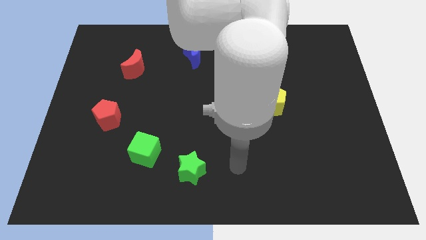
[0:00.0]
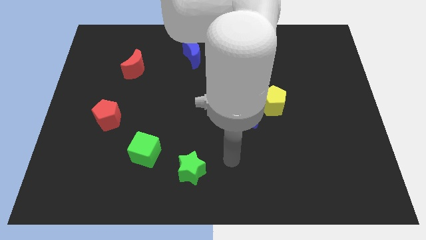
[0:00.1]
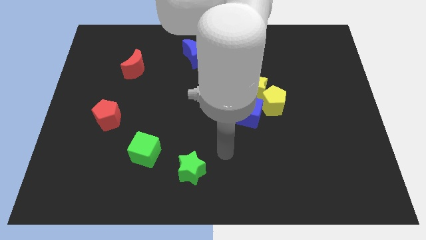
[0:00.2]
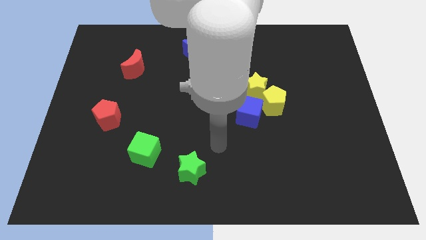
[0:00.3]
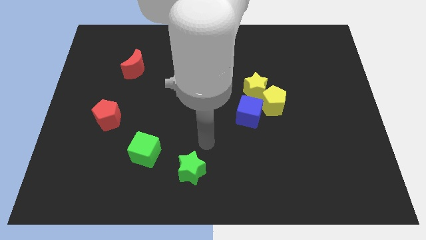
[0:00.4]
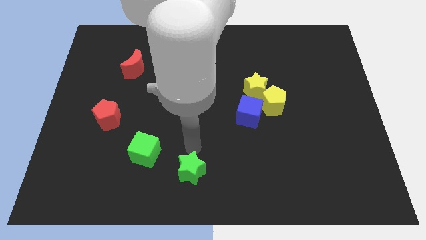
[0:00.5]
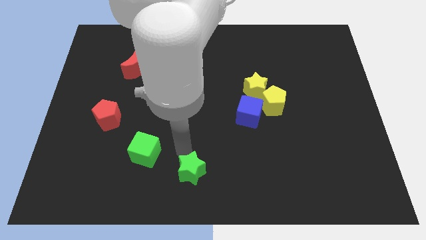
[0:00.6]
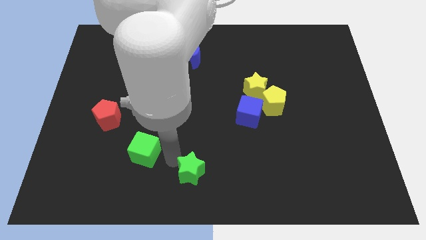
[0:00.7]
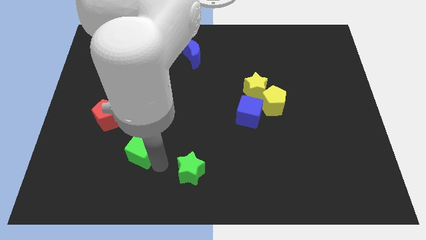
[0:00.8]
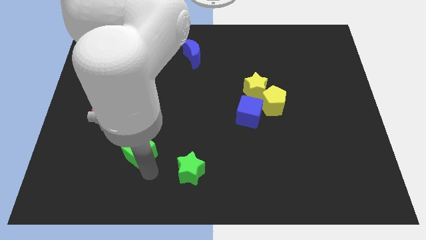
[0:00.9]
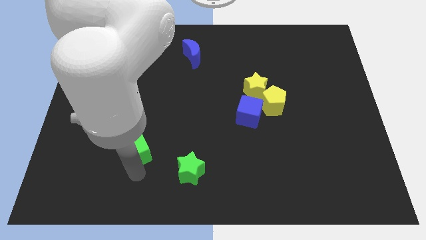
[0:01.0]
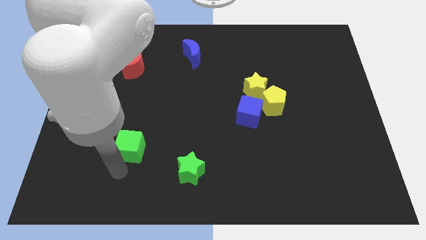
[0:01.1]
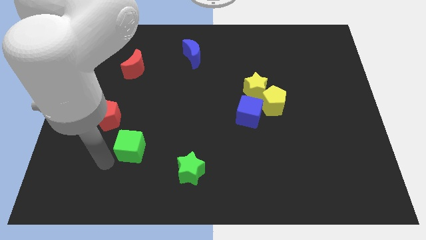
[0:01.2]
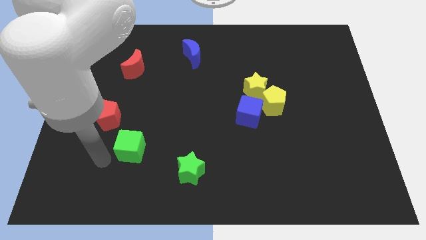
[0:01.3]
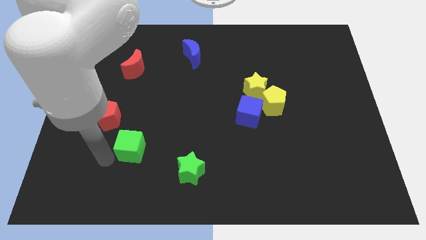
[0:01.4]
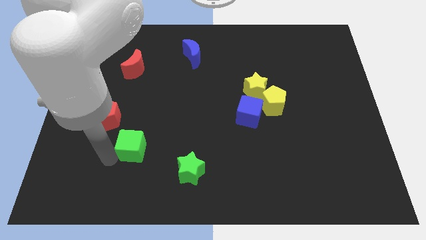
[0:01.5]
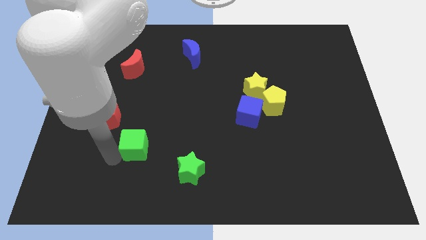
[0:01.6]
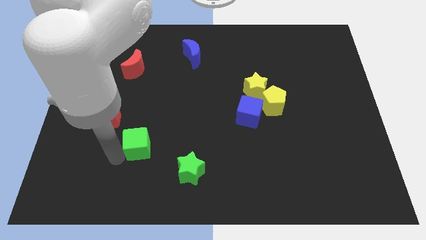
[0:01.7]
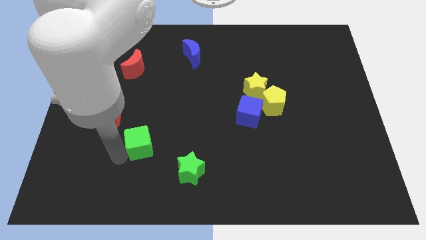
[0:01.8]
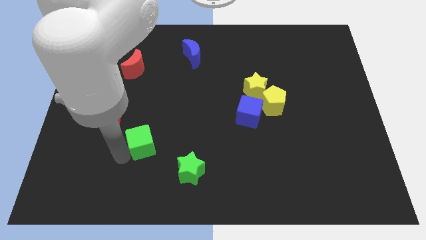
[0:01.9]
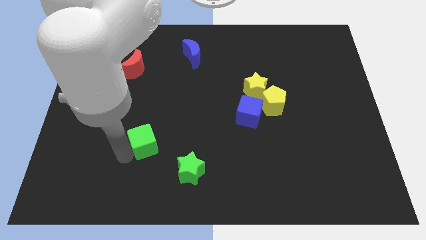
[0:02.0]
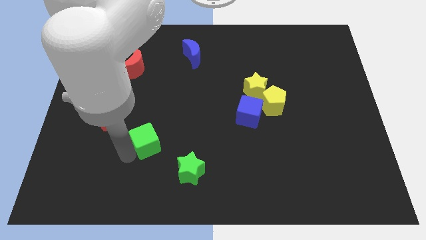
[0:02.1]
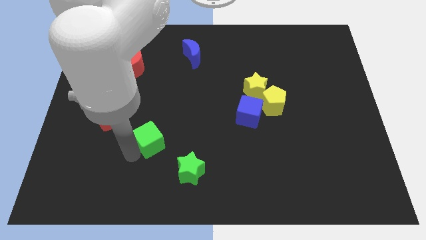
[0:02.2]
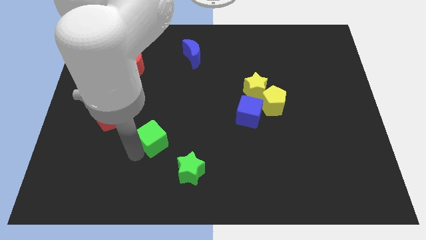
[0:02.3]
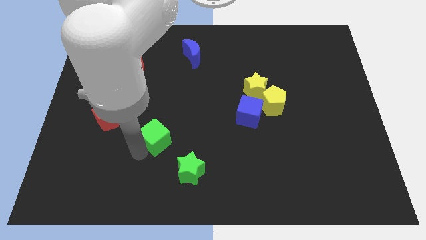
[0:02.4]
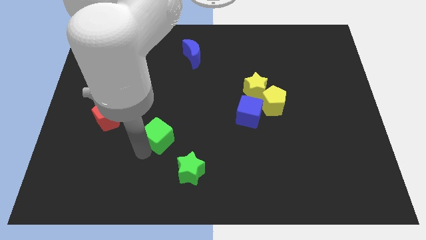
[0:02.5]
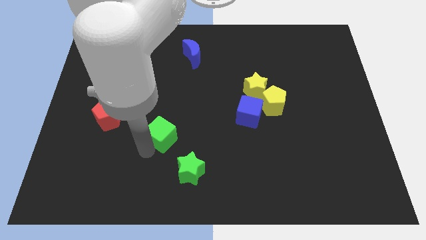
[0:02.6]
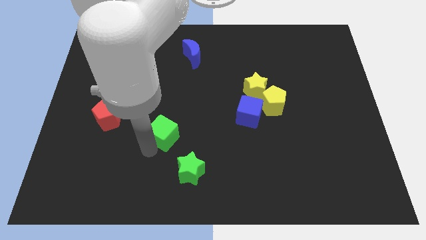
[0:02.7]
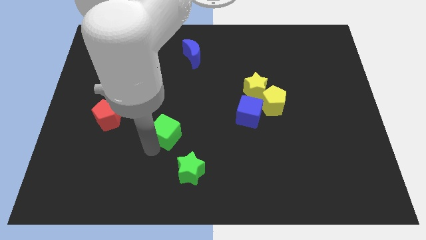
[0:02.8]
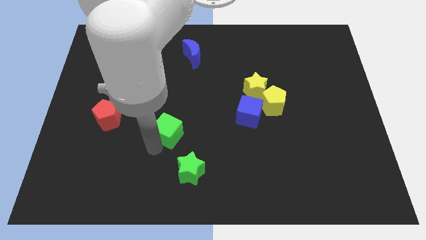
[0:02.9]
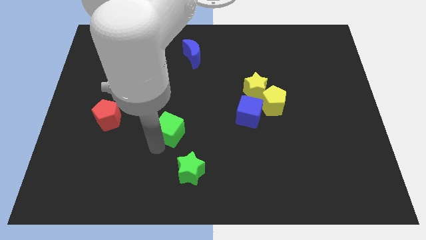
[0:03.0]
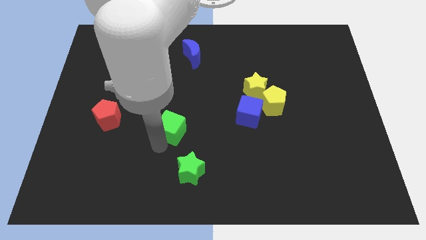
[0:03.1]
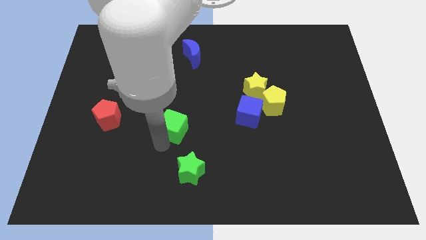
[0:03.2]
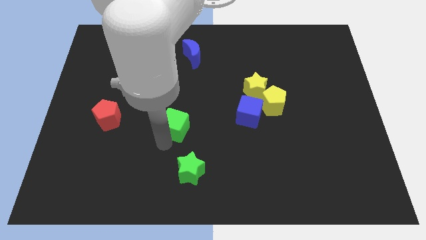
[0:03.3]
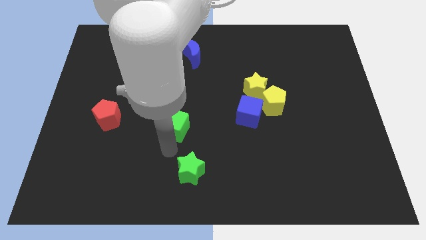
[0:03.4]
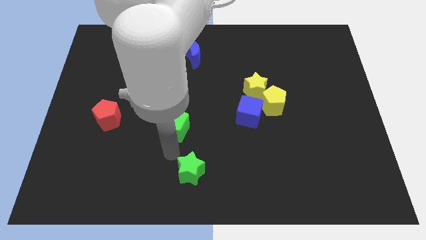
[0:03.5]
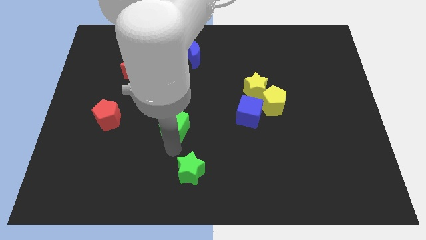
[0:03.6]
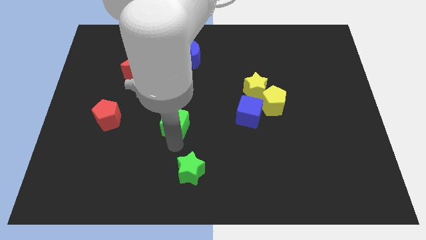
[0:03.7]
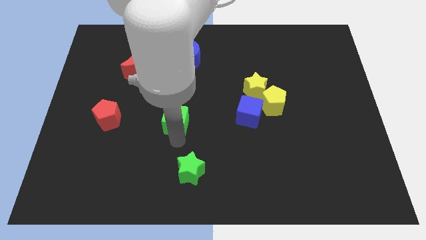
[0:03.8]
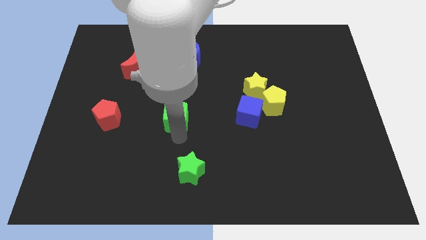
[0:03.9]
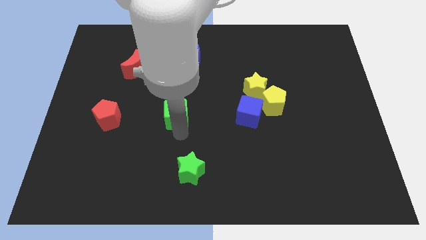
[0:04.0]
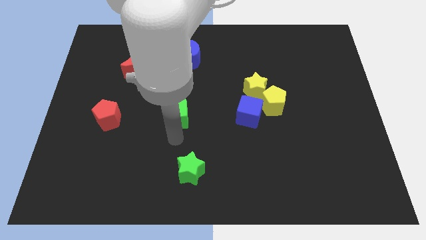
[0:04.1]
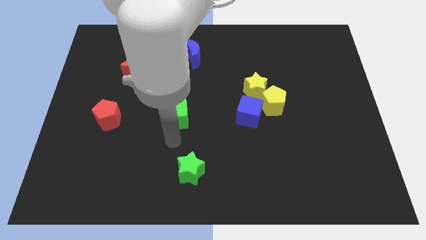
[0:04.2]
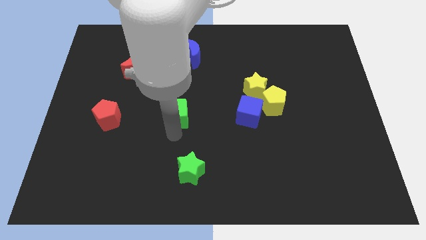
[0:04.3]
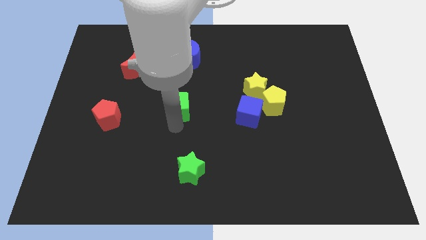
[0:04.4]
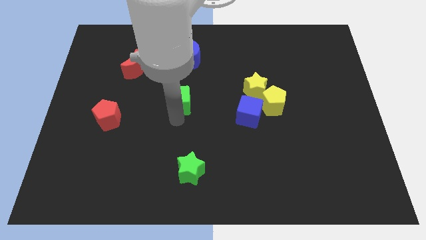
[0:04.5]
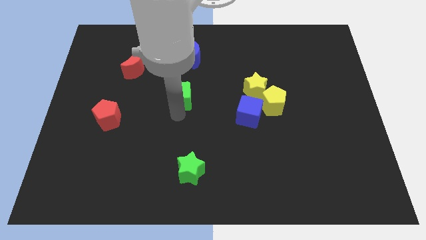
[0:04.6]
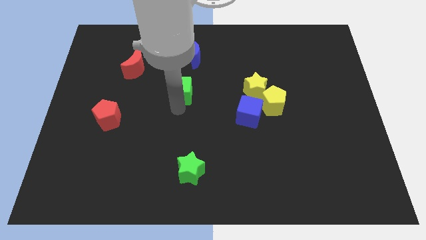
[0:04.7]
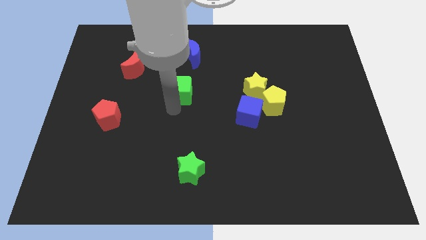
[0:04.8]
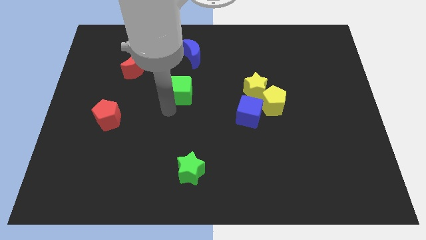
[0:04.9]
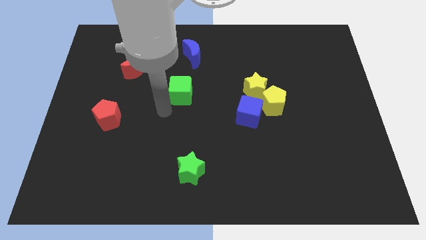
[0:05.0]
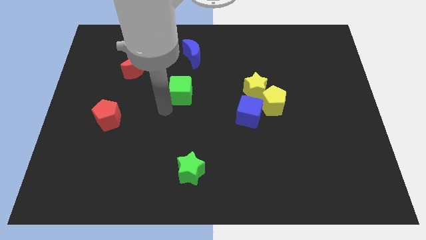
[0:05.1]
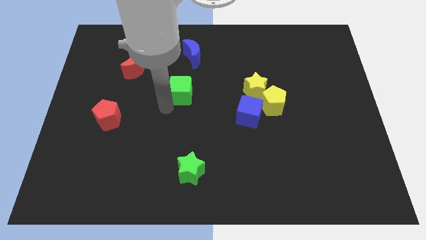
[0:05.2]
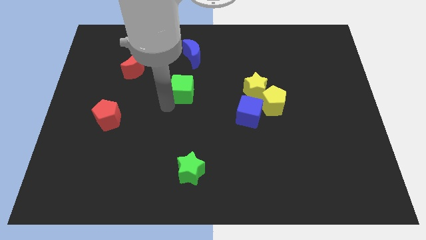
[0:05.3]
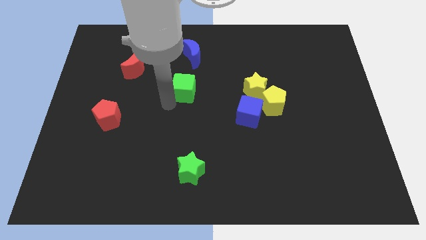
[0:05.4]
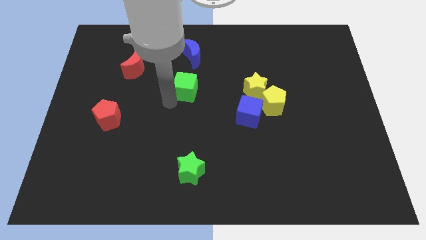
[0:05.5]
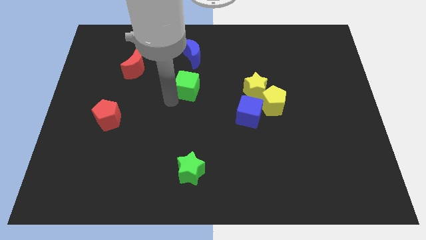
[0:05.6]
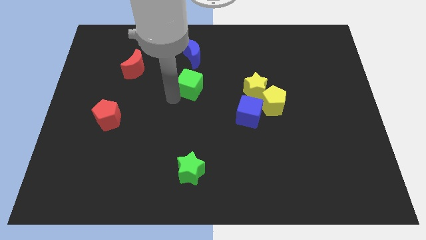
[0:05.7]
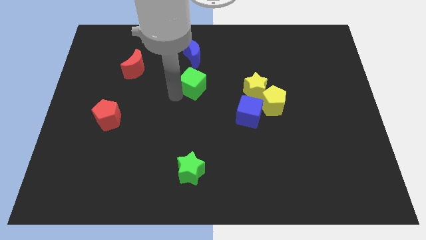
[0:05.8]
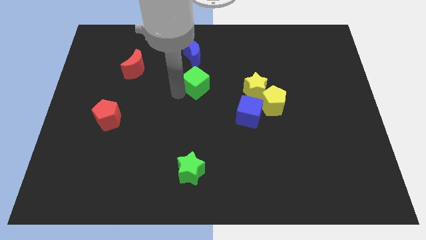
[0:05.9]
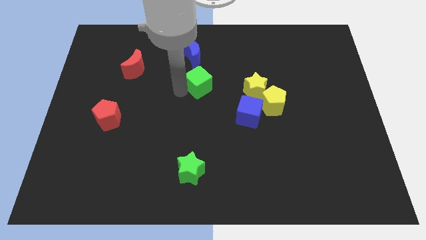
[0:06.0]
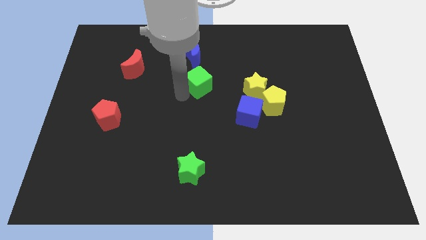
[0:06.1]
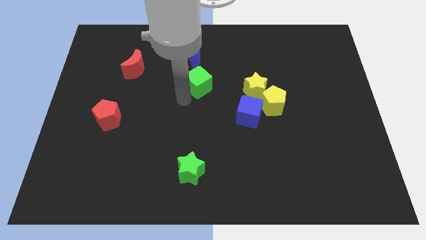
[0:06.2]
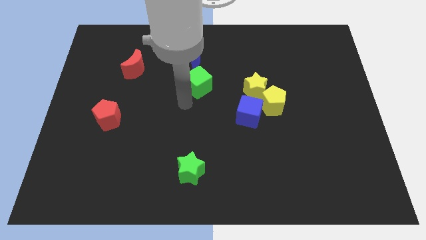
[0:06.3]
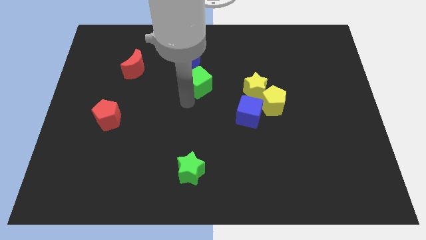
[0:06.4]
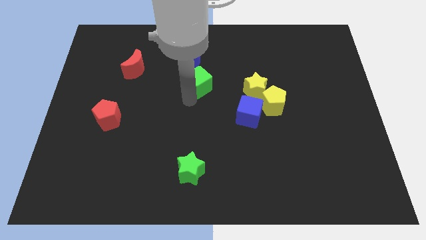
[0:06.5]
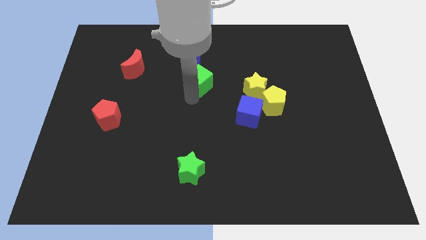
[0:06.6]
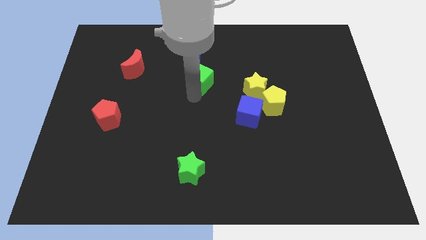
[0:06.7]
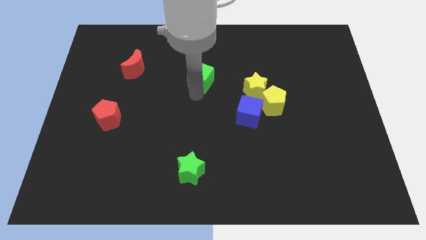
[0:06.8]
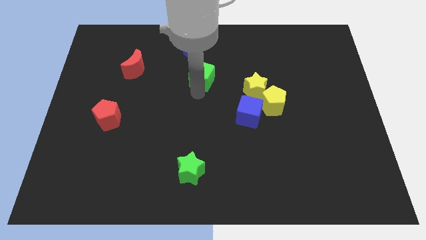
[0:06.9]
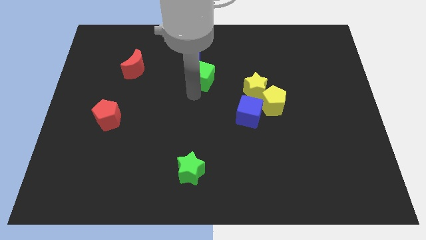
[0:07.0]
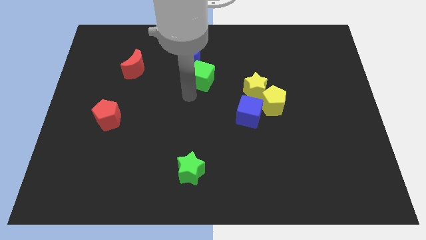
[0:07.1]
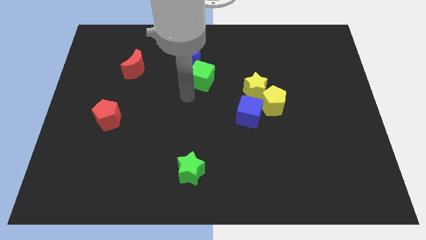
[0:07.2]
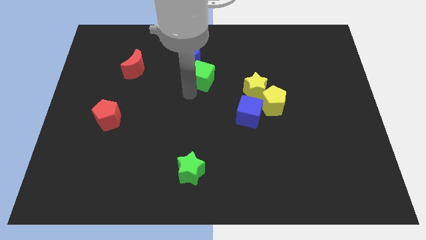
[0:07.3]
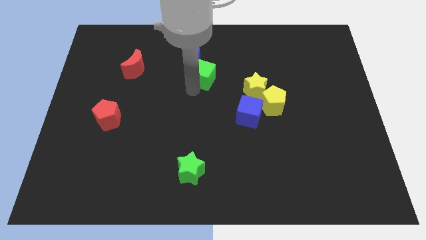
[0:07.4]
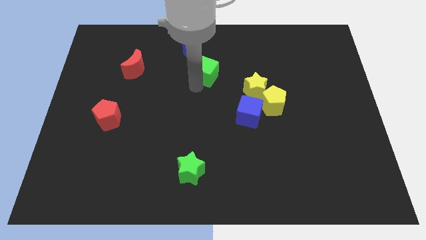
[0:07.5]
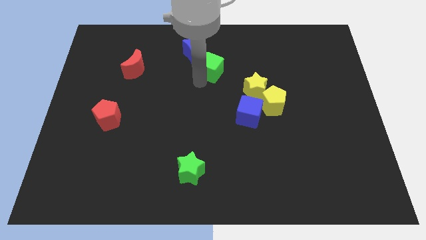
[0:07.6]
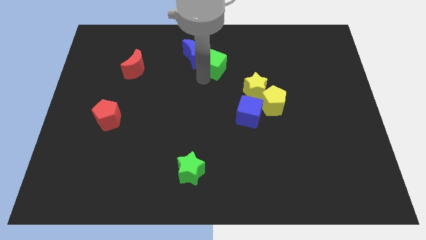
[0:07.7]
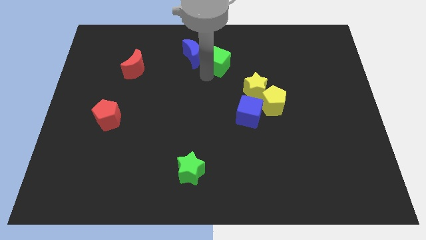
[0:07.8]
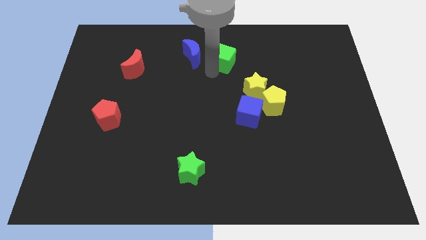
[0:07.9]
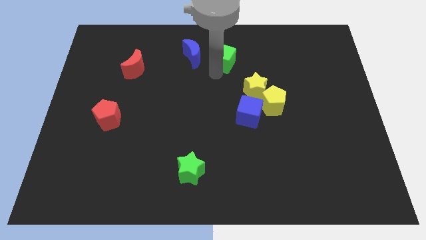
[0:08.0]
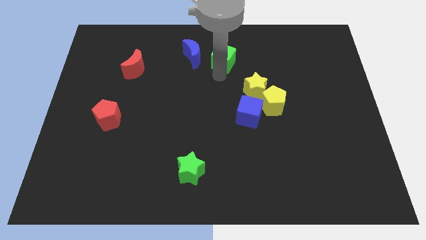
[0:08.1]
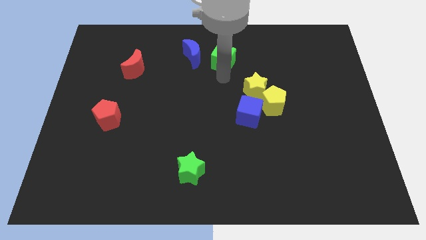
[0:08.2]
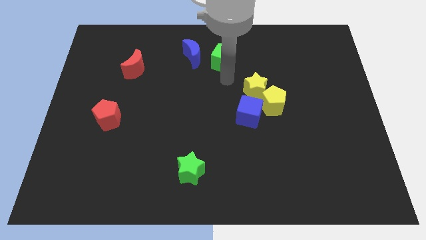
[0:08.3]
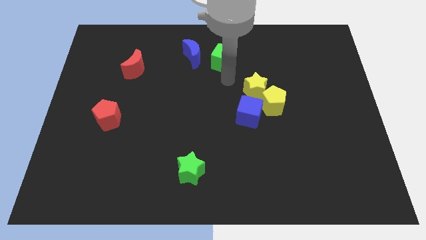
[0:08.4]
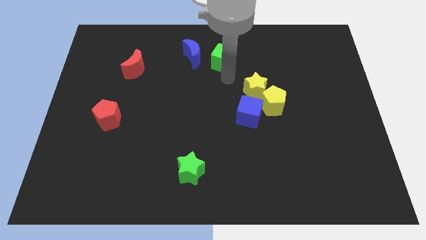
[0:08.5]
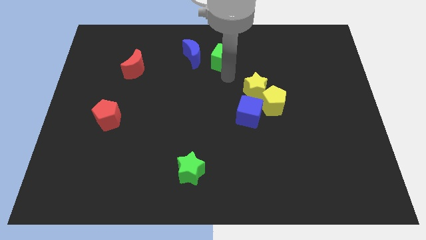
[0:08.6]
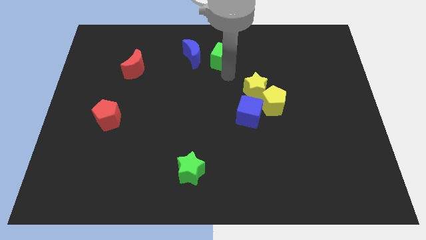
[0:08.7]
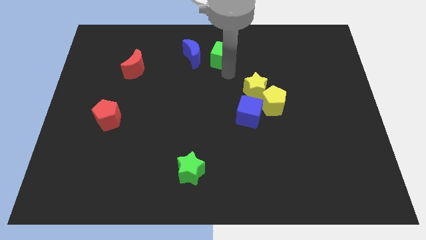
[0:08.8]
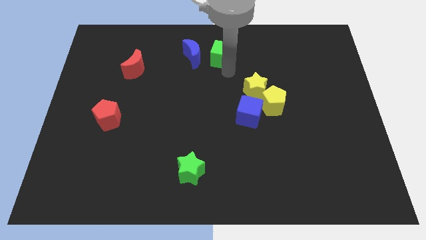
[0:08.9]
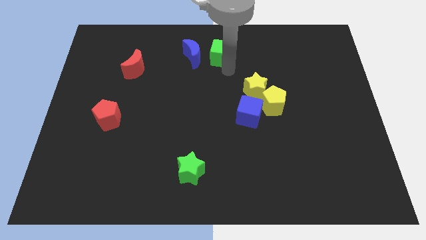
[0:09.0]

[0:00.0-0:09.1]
move the green cube to the towards your base
